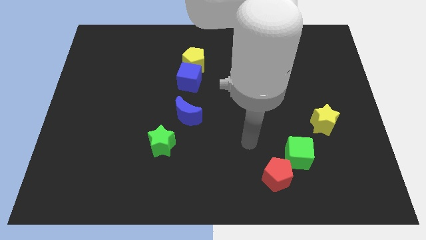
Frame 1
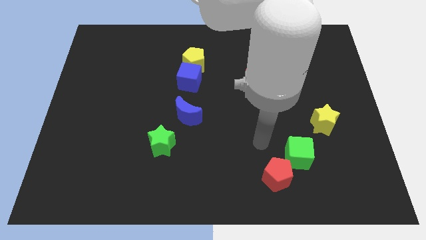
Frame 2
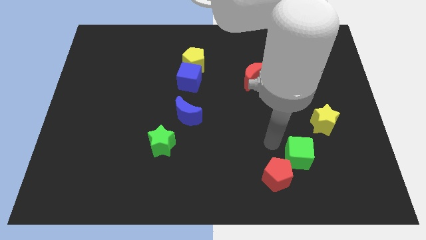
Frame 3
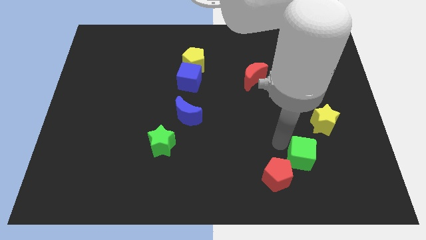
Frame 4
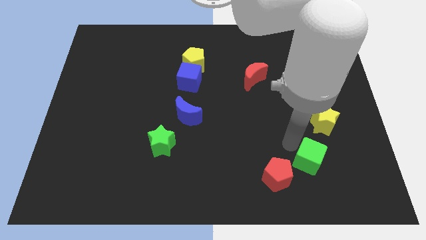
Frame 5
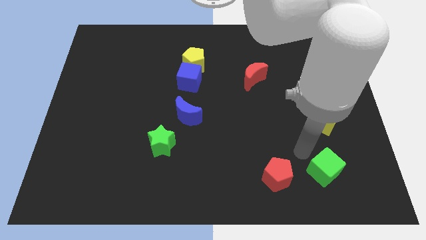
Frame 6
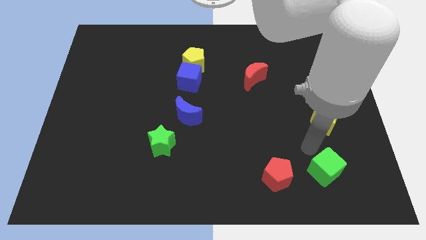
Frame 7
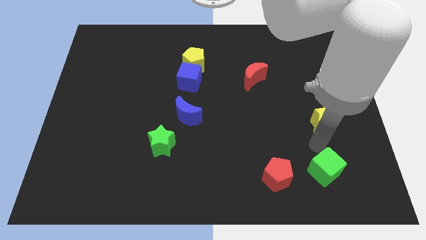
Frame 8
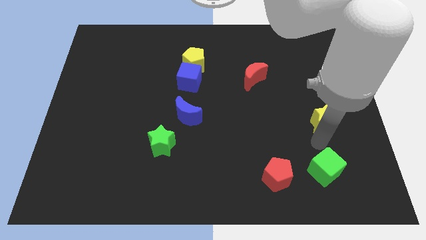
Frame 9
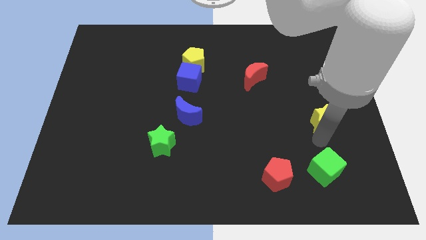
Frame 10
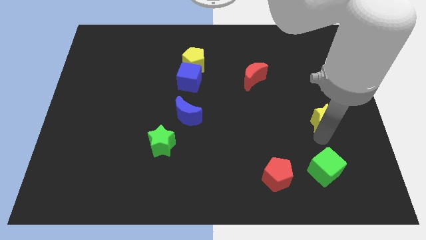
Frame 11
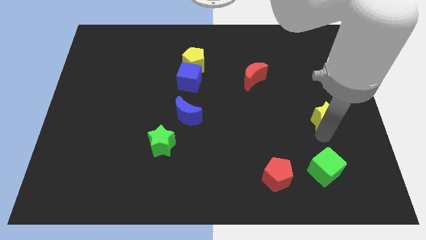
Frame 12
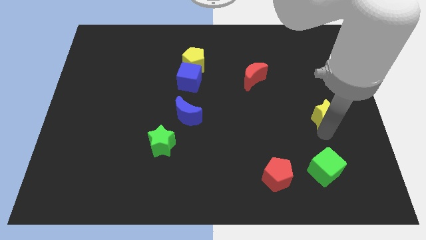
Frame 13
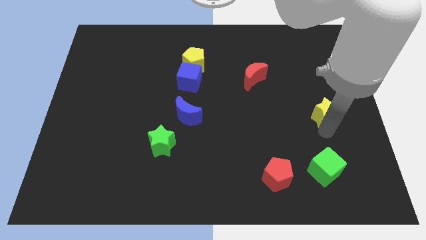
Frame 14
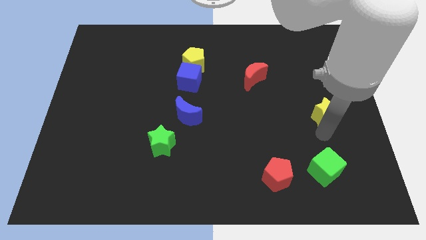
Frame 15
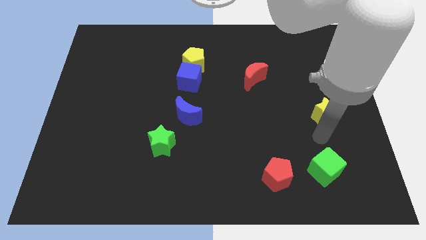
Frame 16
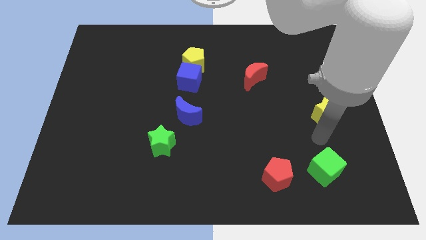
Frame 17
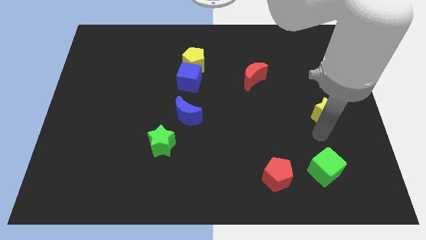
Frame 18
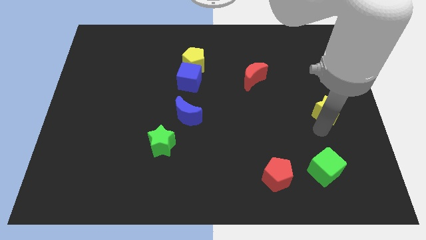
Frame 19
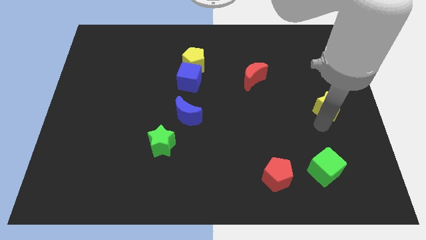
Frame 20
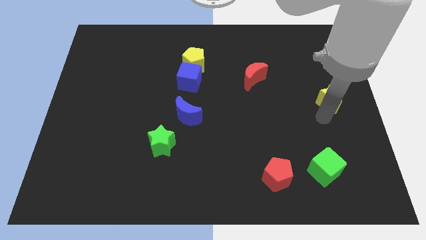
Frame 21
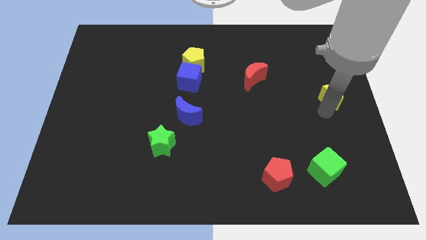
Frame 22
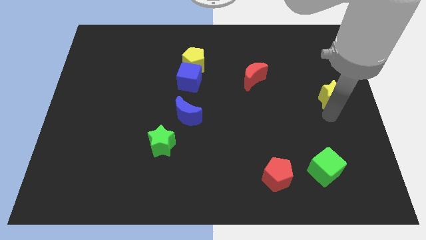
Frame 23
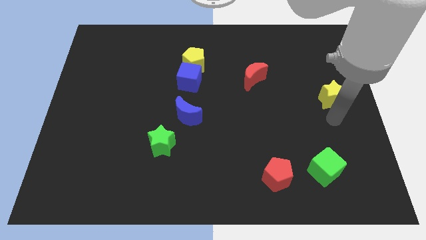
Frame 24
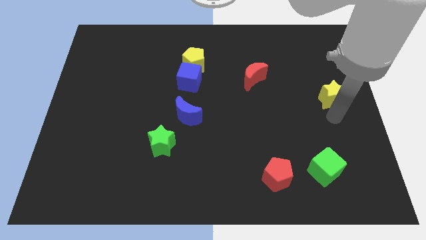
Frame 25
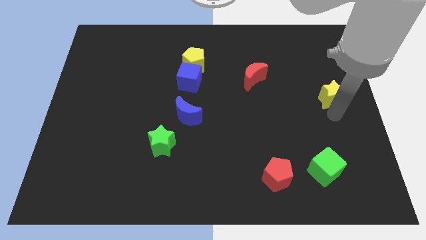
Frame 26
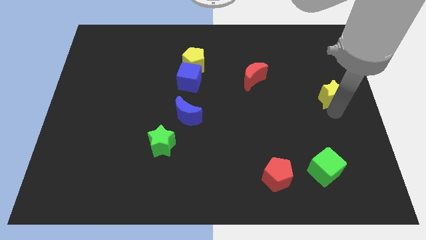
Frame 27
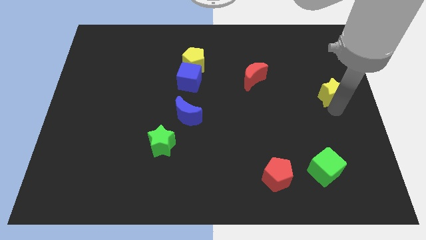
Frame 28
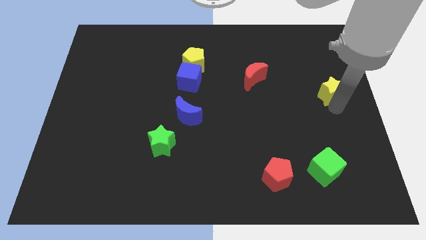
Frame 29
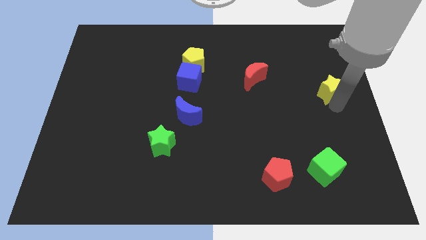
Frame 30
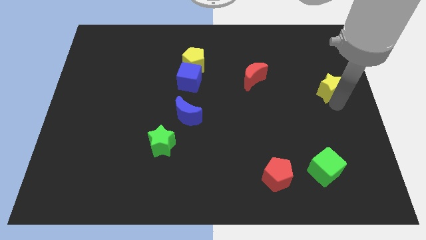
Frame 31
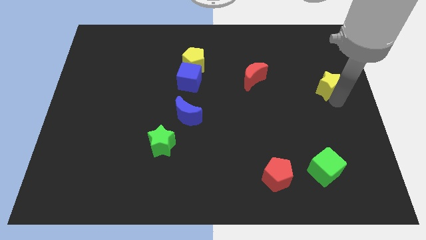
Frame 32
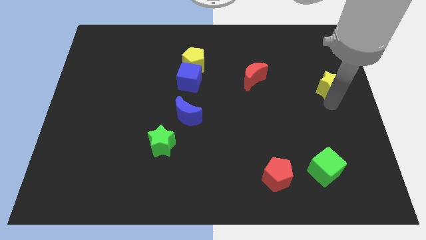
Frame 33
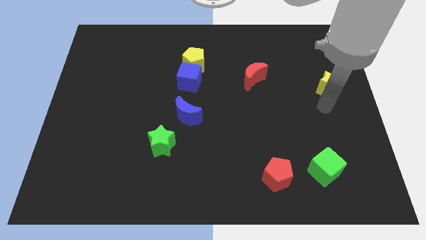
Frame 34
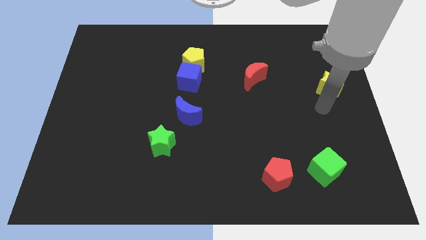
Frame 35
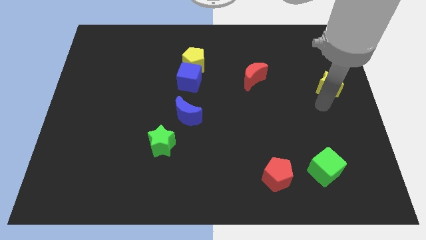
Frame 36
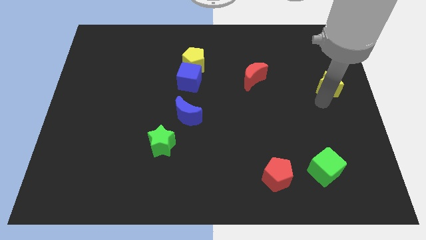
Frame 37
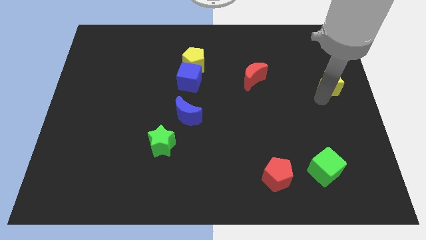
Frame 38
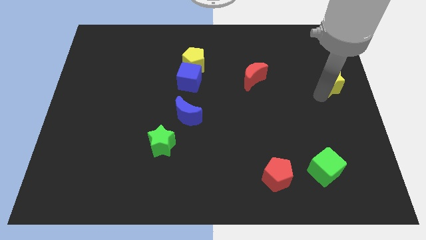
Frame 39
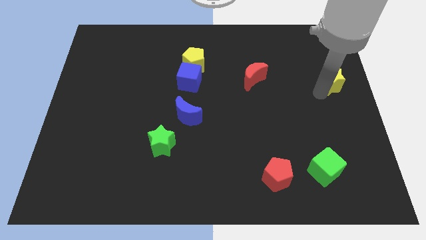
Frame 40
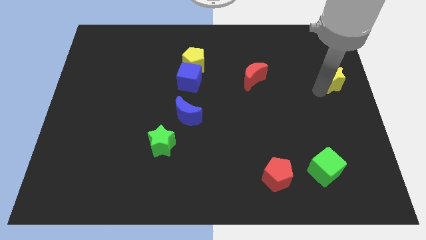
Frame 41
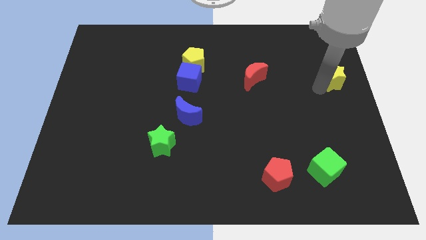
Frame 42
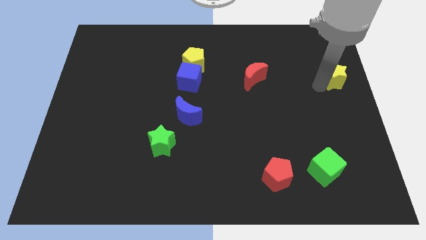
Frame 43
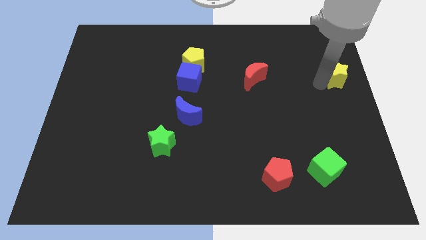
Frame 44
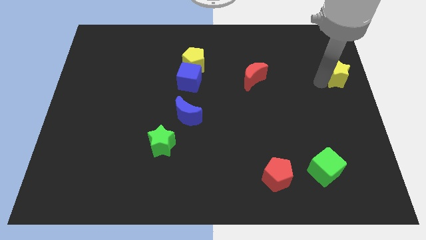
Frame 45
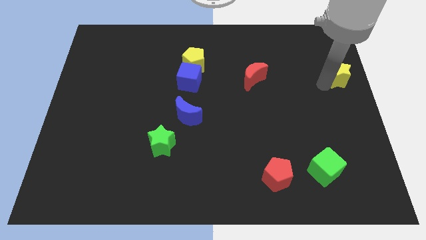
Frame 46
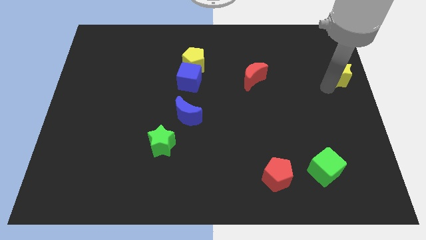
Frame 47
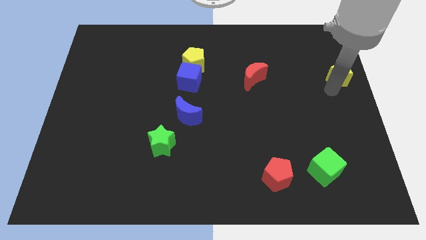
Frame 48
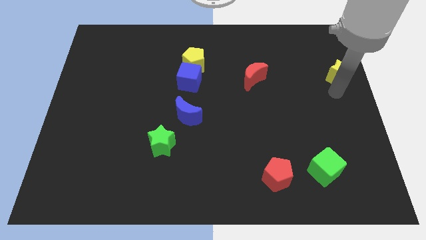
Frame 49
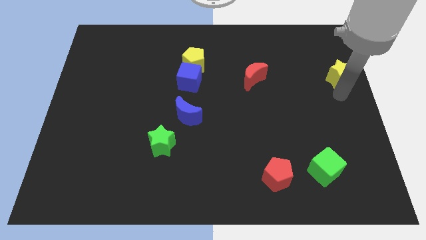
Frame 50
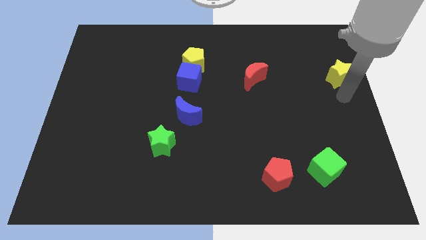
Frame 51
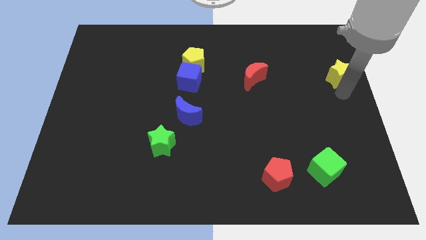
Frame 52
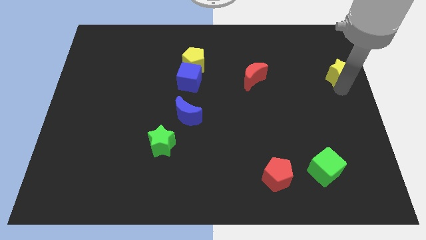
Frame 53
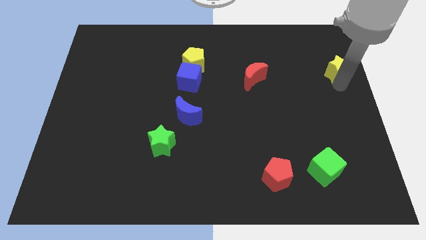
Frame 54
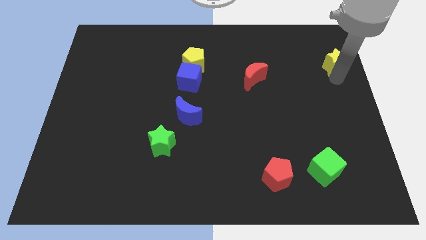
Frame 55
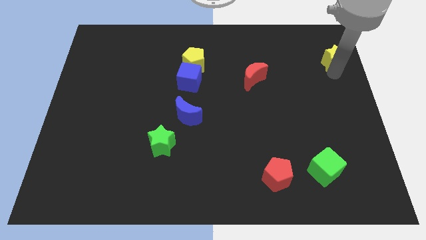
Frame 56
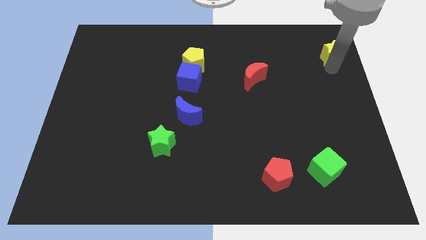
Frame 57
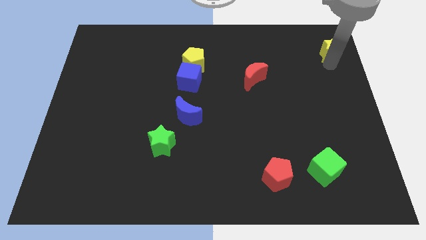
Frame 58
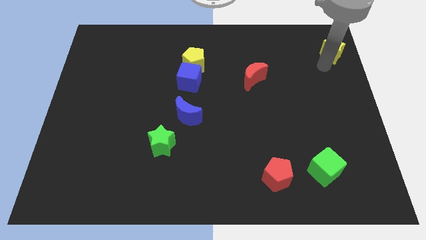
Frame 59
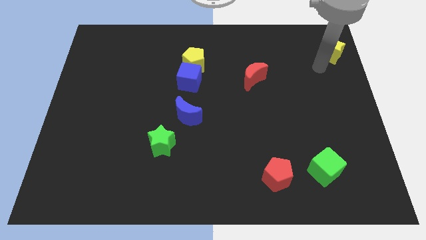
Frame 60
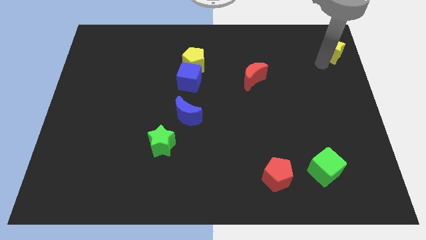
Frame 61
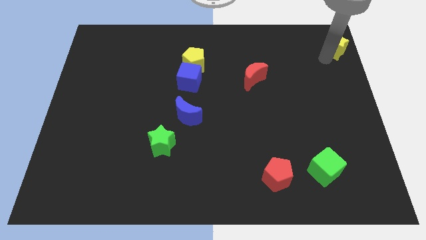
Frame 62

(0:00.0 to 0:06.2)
put the yellow star to the top right of the board

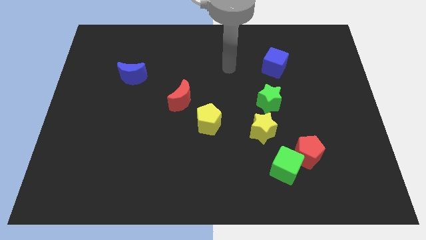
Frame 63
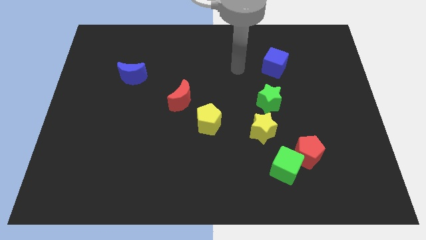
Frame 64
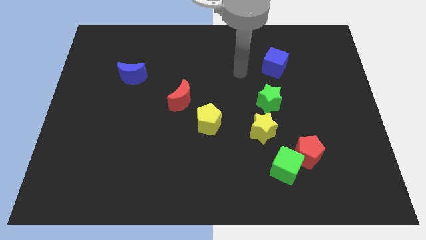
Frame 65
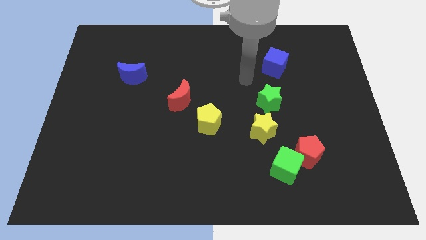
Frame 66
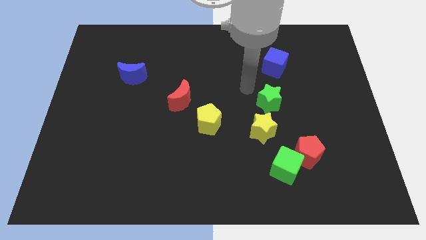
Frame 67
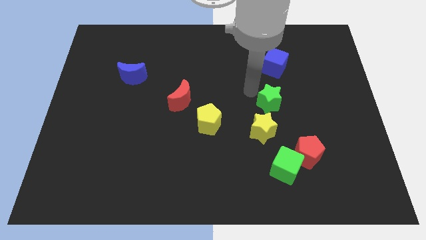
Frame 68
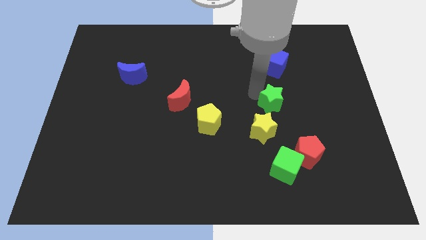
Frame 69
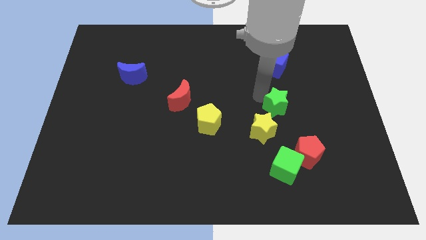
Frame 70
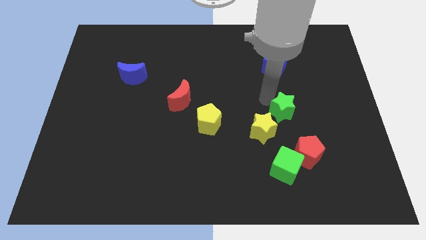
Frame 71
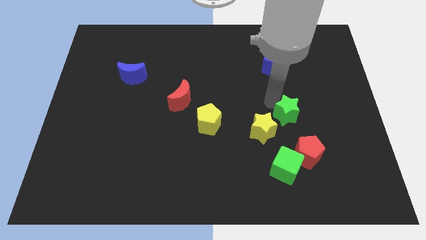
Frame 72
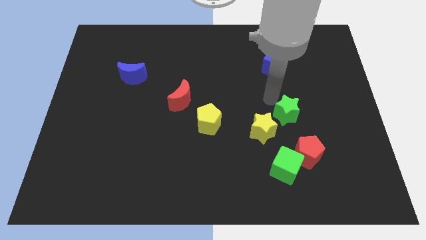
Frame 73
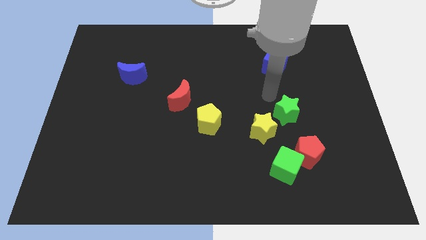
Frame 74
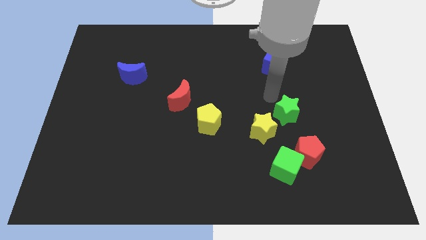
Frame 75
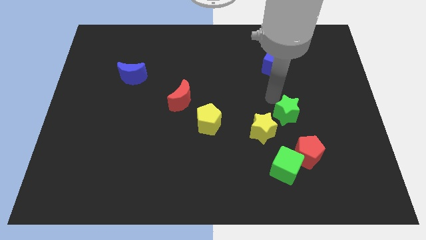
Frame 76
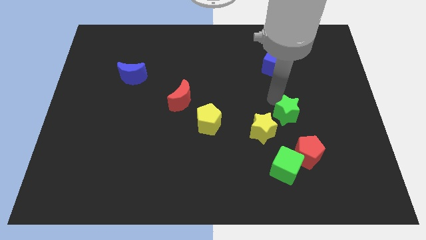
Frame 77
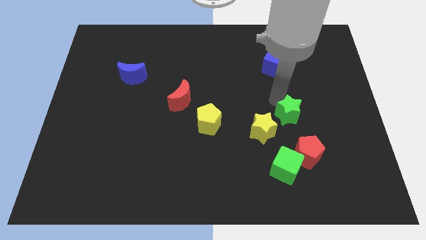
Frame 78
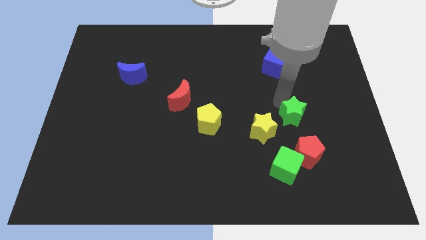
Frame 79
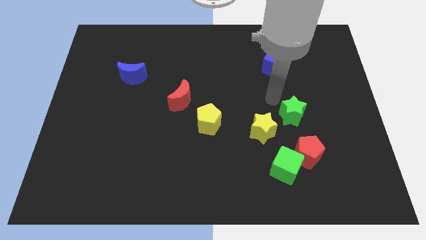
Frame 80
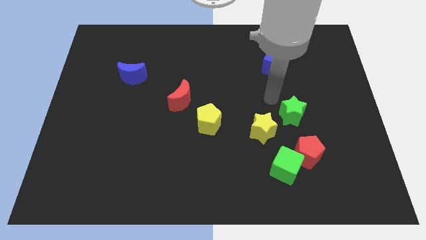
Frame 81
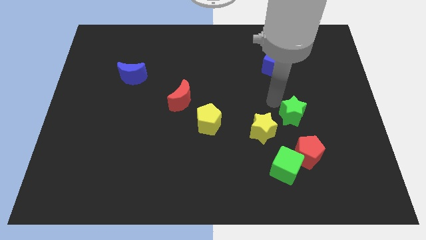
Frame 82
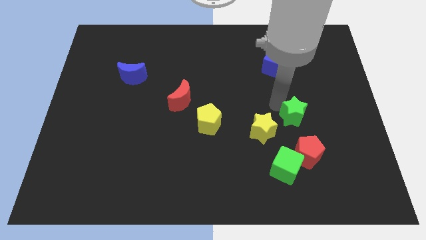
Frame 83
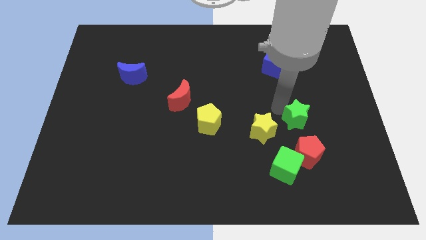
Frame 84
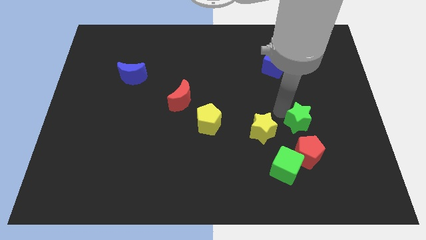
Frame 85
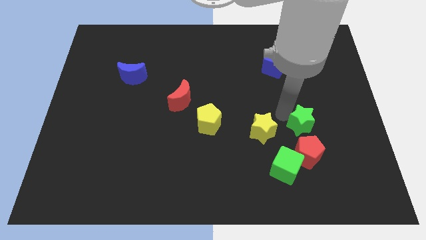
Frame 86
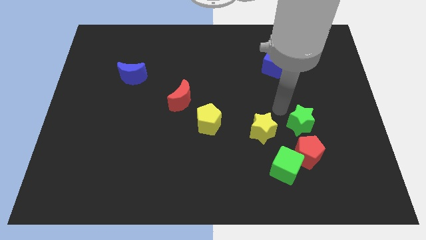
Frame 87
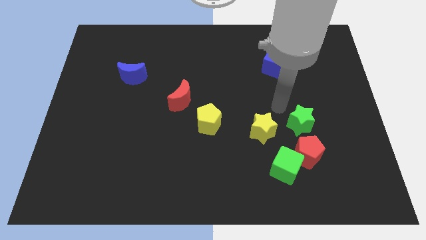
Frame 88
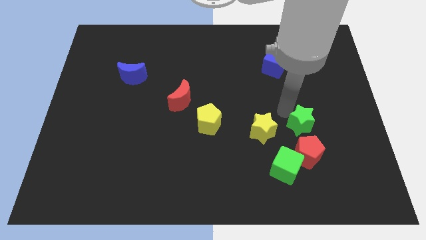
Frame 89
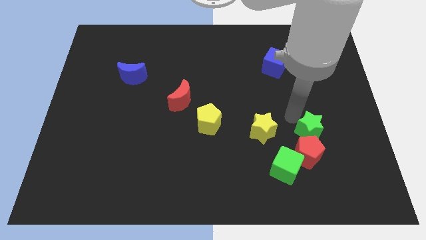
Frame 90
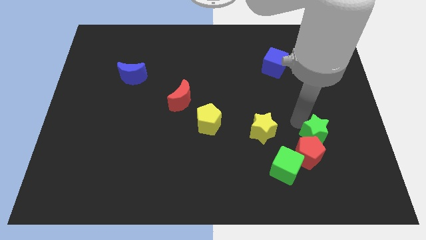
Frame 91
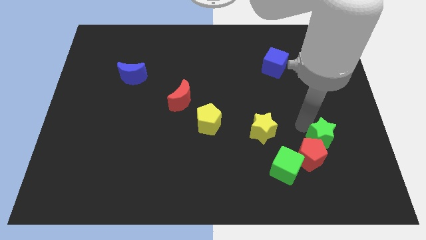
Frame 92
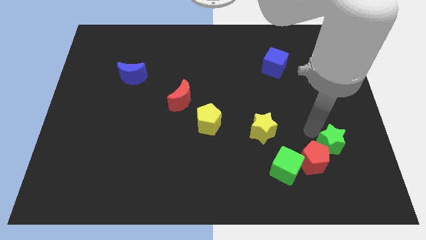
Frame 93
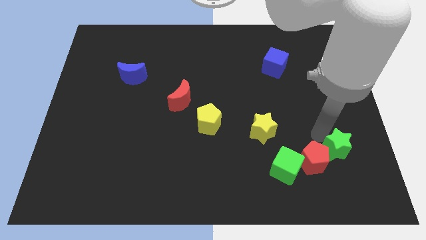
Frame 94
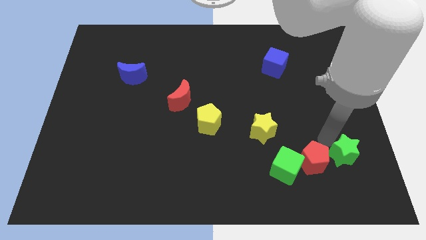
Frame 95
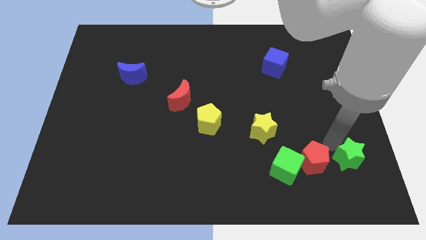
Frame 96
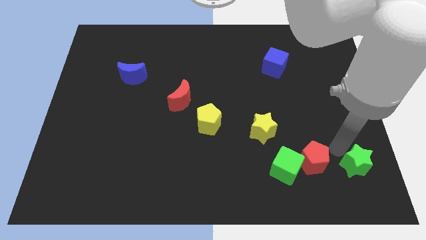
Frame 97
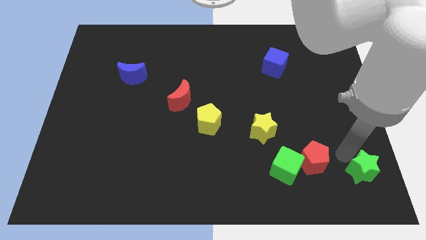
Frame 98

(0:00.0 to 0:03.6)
slide the green star to the bottom right
